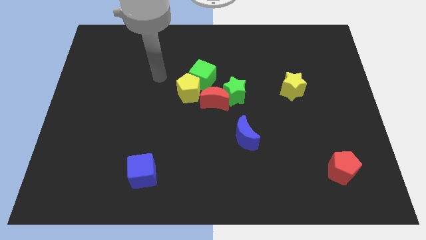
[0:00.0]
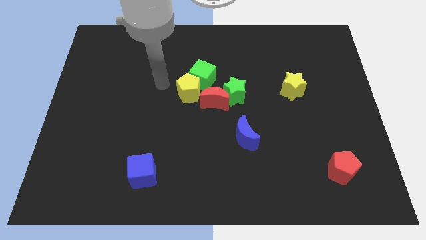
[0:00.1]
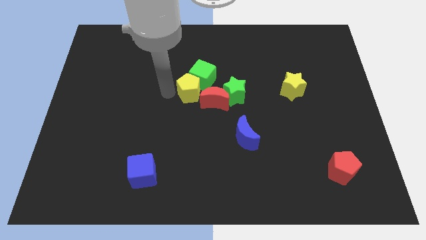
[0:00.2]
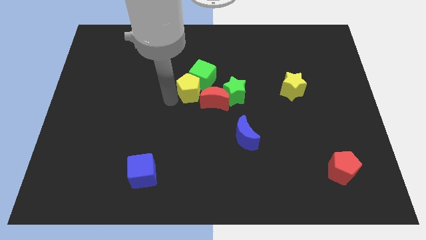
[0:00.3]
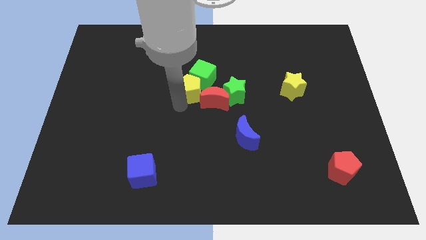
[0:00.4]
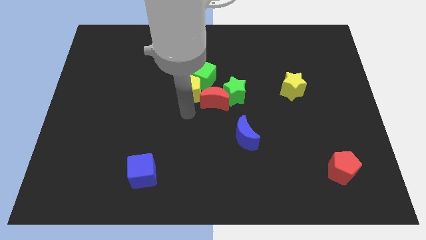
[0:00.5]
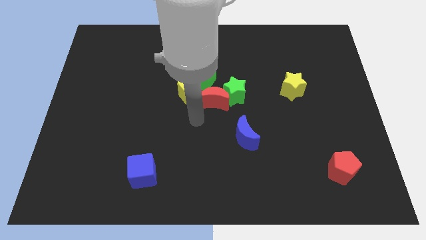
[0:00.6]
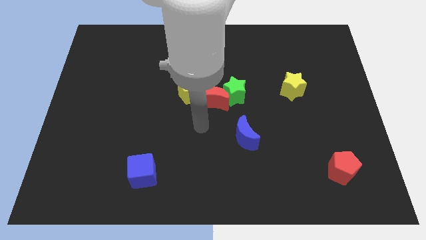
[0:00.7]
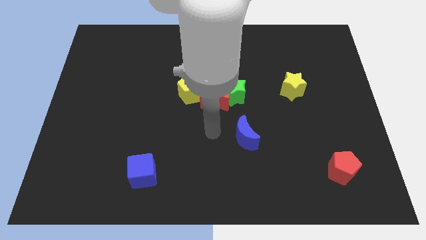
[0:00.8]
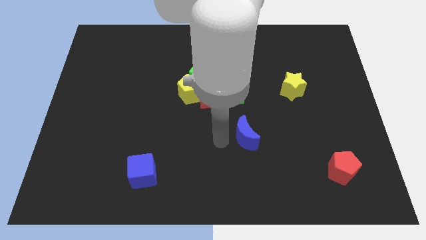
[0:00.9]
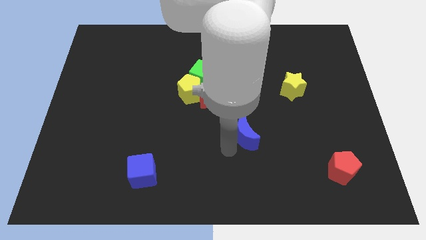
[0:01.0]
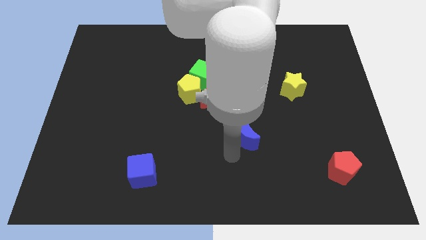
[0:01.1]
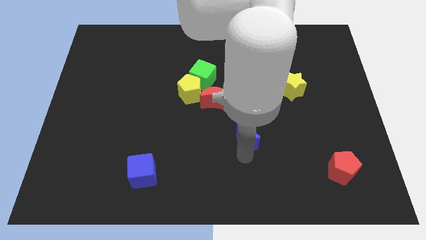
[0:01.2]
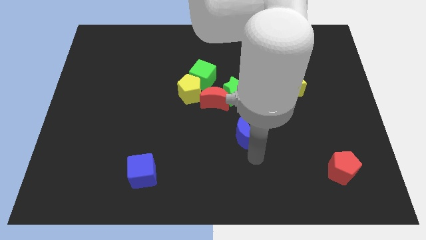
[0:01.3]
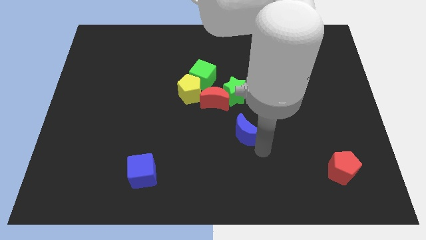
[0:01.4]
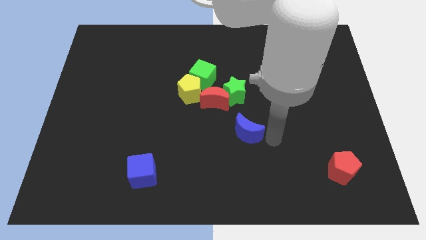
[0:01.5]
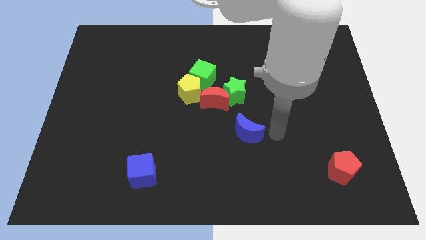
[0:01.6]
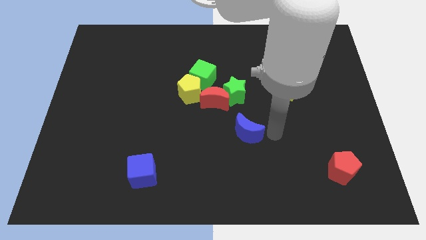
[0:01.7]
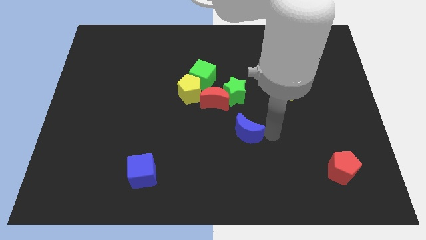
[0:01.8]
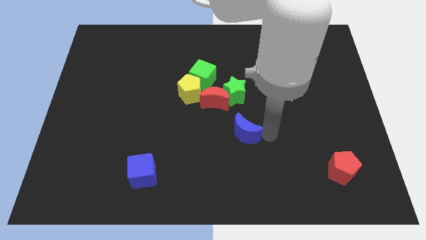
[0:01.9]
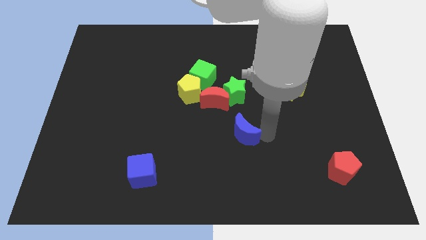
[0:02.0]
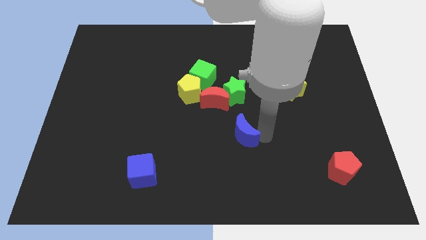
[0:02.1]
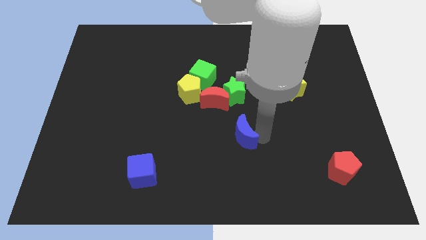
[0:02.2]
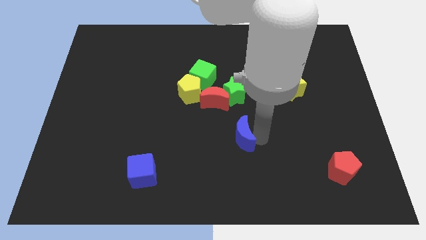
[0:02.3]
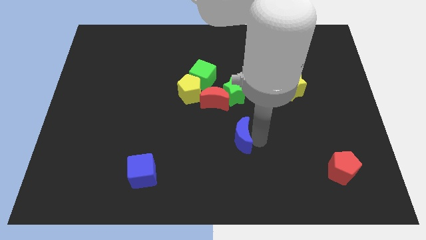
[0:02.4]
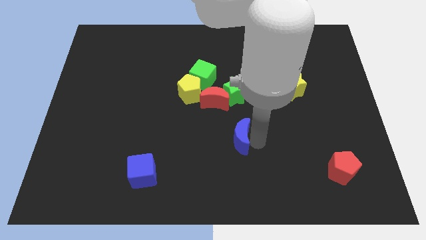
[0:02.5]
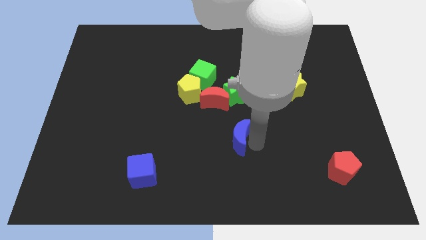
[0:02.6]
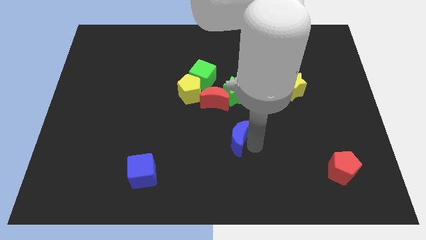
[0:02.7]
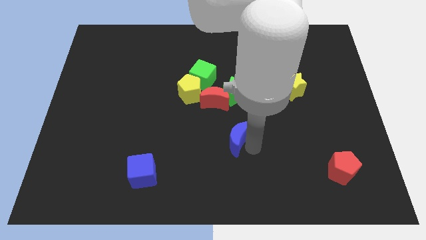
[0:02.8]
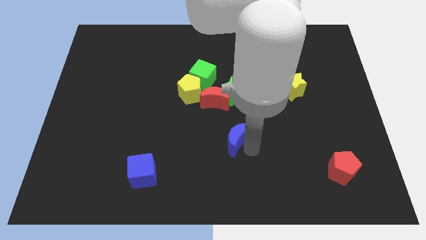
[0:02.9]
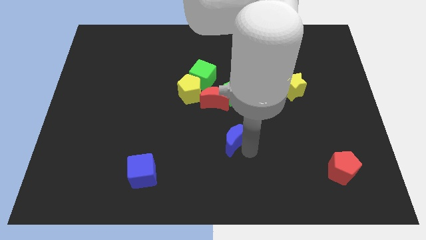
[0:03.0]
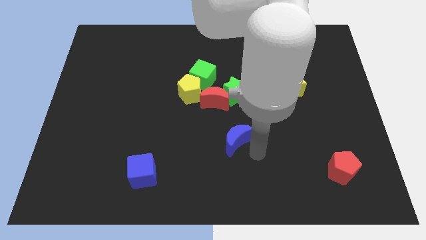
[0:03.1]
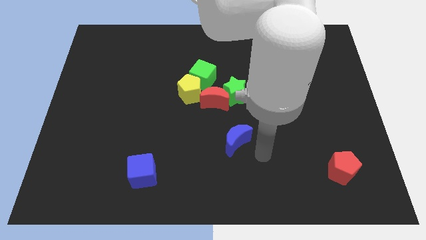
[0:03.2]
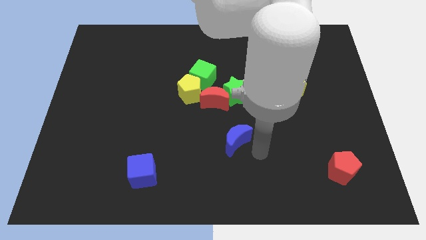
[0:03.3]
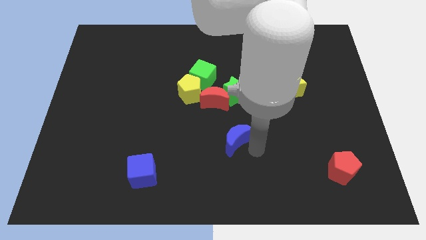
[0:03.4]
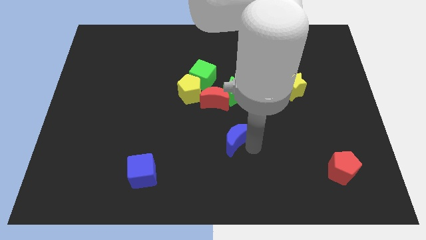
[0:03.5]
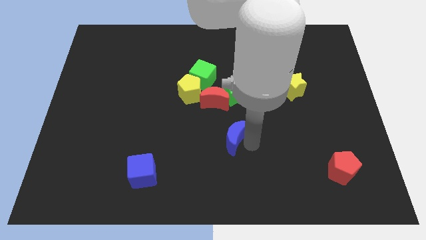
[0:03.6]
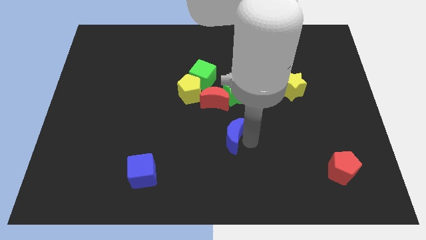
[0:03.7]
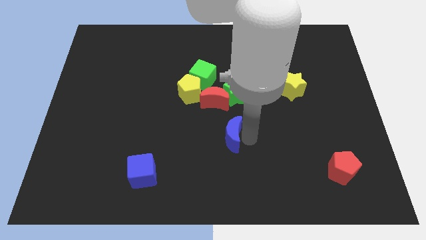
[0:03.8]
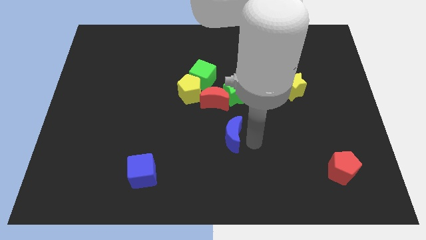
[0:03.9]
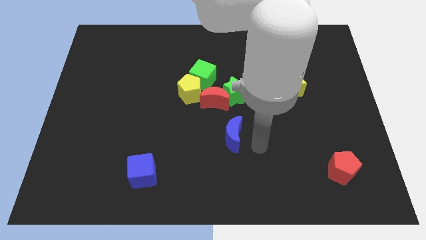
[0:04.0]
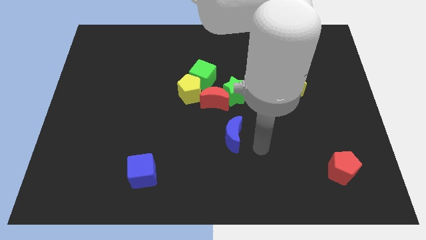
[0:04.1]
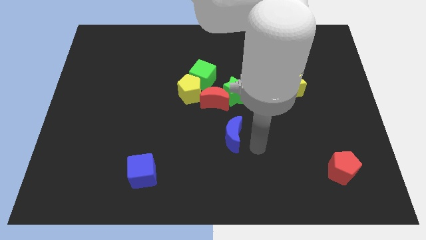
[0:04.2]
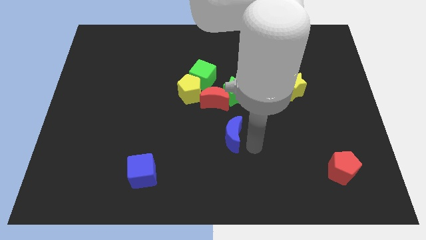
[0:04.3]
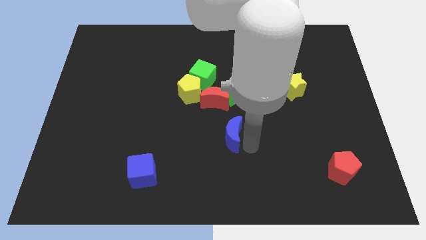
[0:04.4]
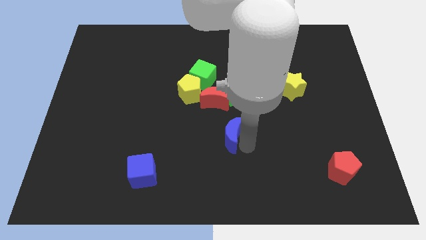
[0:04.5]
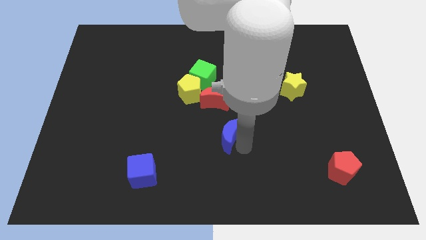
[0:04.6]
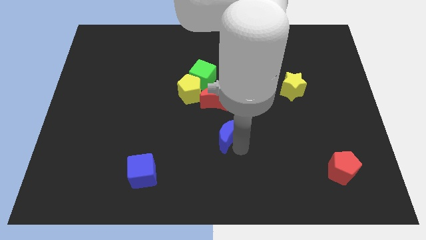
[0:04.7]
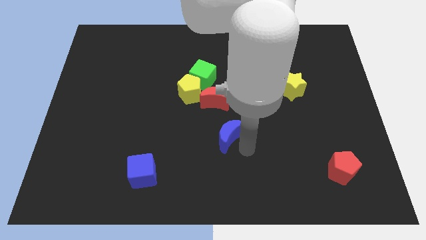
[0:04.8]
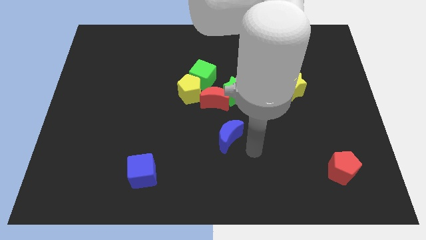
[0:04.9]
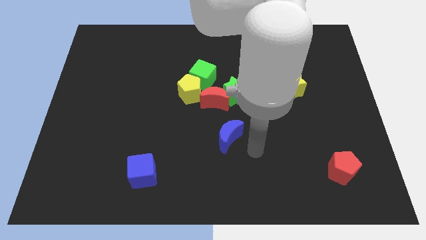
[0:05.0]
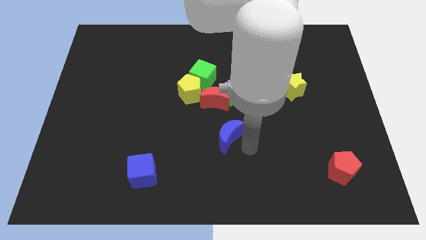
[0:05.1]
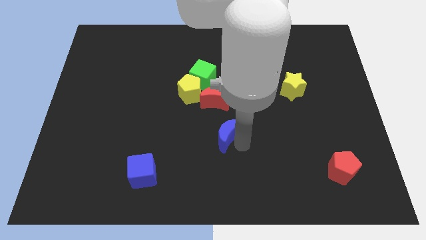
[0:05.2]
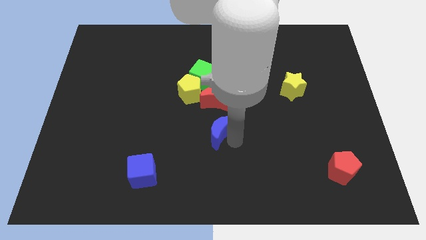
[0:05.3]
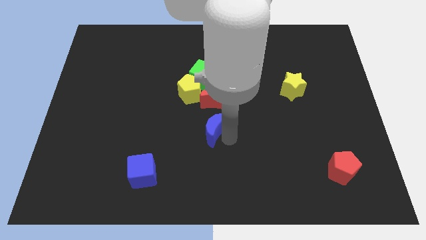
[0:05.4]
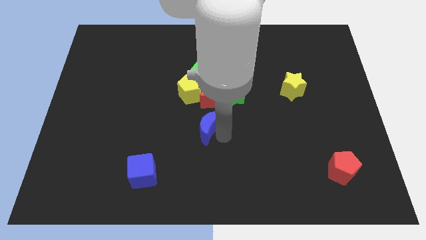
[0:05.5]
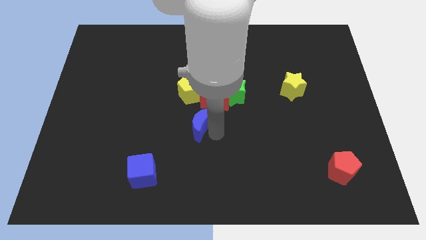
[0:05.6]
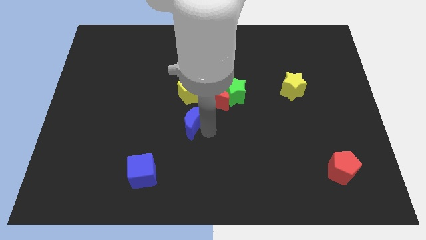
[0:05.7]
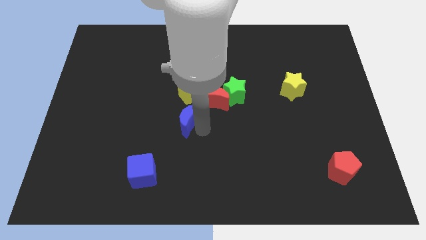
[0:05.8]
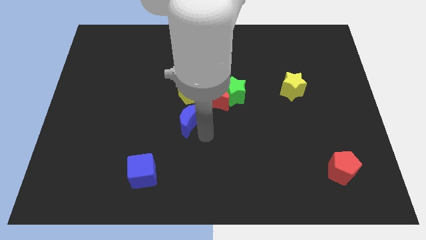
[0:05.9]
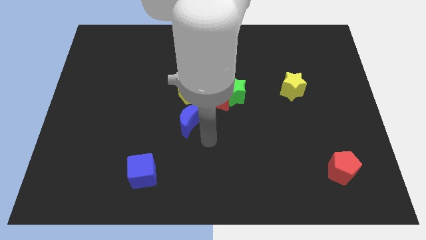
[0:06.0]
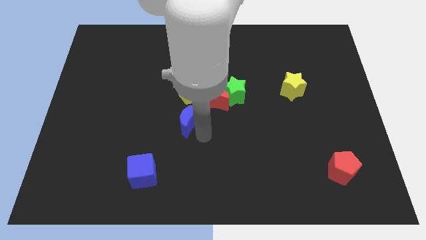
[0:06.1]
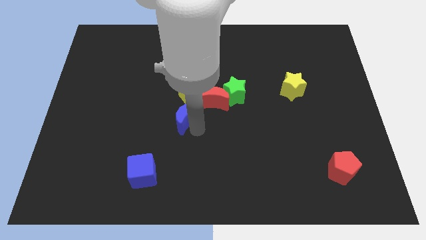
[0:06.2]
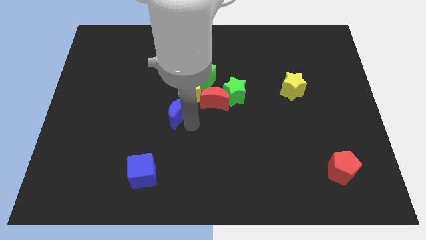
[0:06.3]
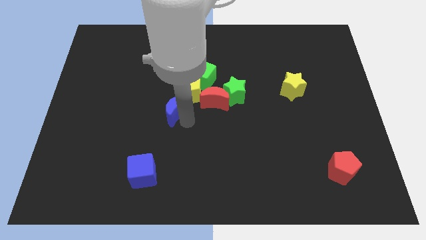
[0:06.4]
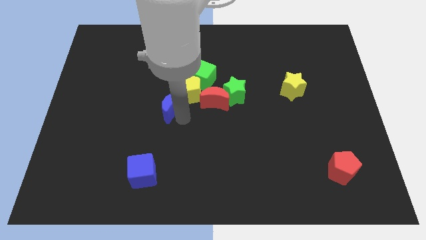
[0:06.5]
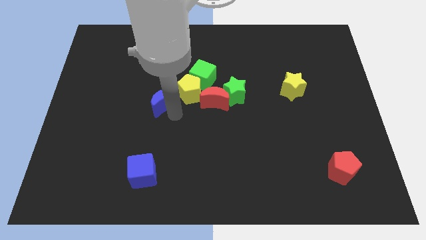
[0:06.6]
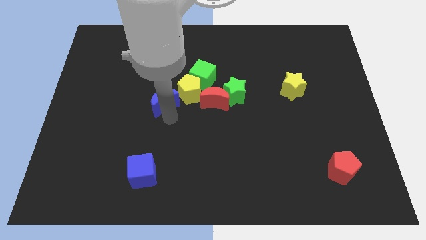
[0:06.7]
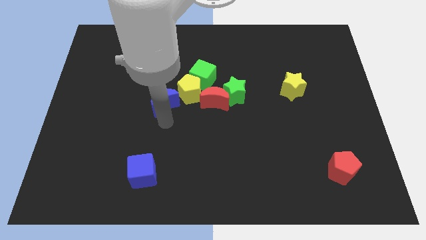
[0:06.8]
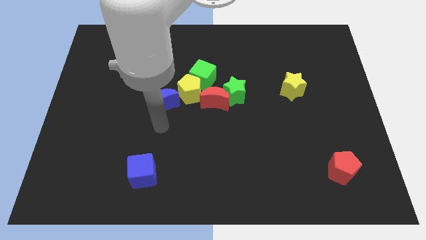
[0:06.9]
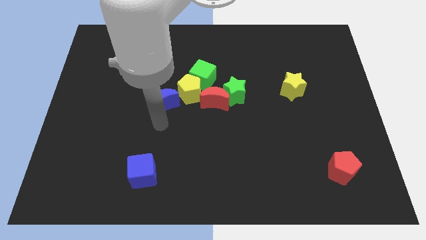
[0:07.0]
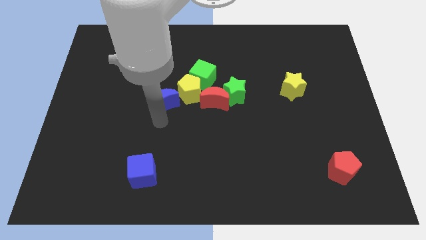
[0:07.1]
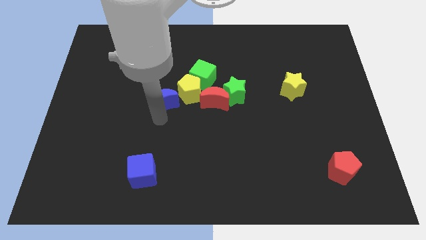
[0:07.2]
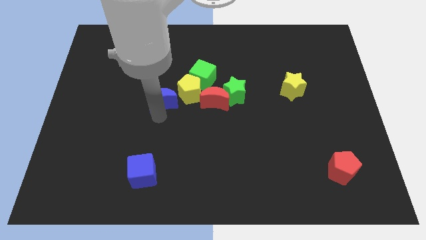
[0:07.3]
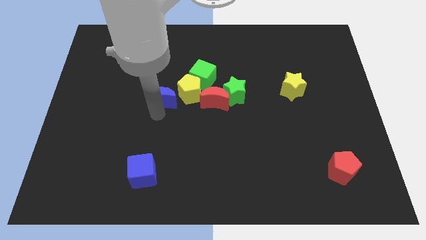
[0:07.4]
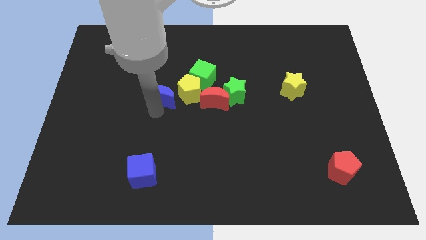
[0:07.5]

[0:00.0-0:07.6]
move the blue moon diagonally upwards and left

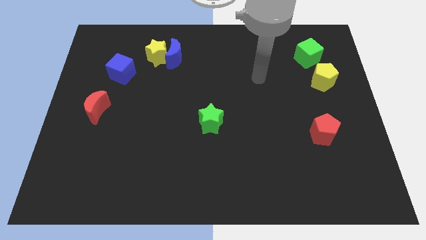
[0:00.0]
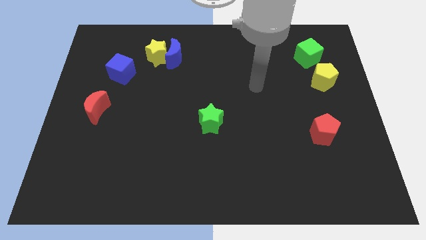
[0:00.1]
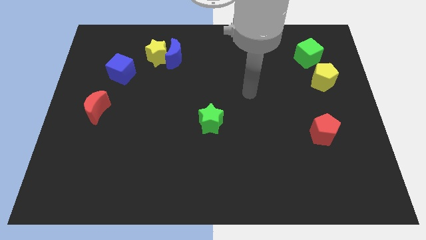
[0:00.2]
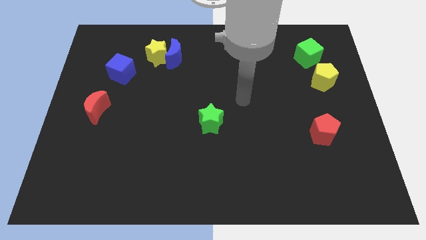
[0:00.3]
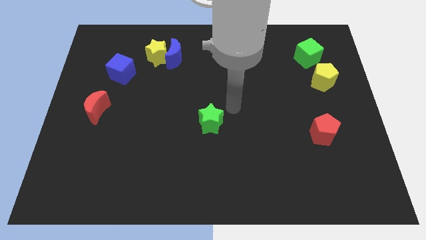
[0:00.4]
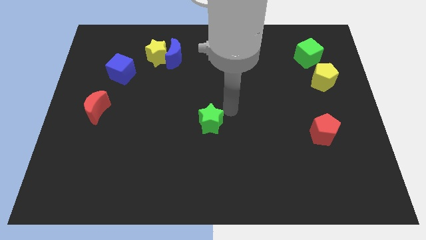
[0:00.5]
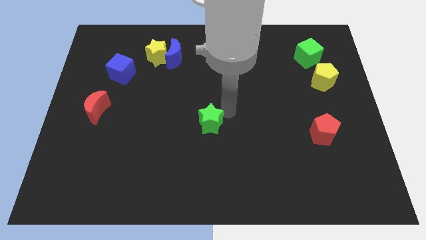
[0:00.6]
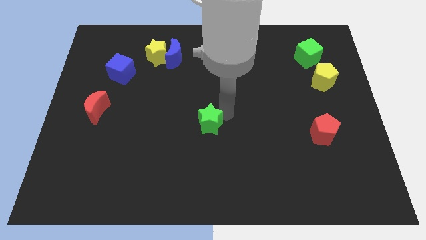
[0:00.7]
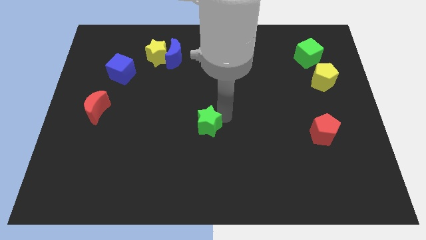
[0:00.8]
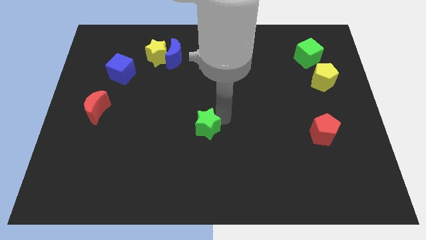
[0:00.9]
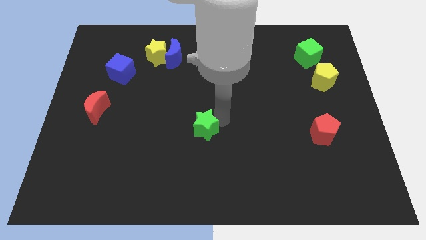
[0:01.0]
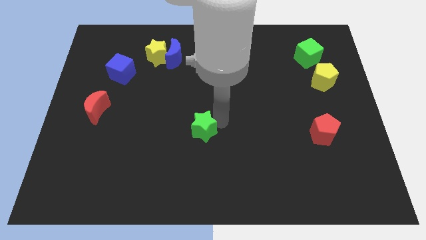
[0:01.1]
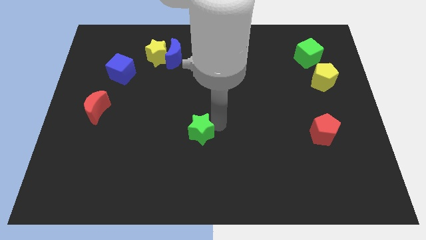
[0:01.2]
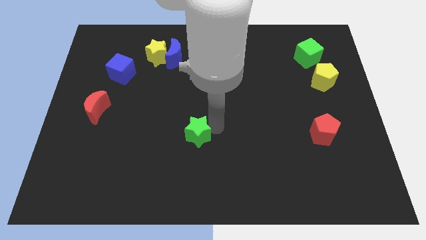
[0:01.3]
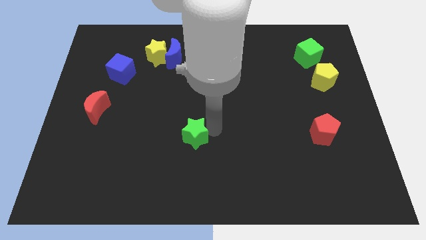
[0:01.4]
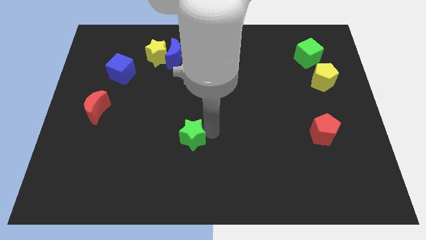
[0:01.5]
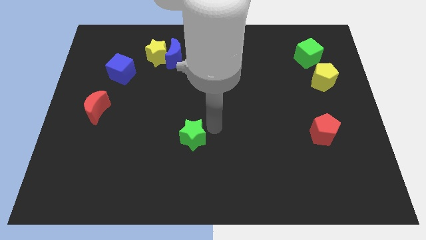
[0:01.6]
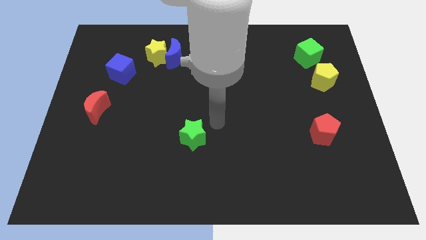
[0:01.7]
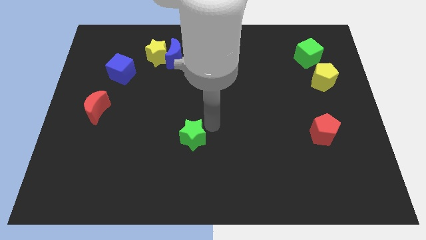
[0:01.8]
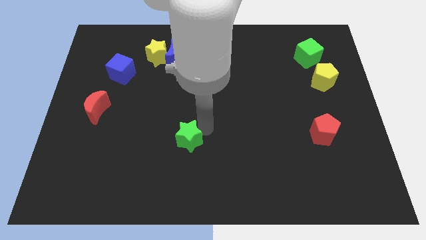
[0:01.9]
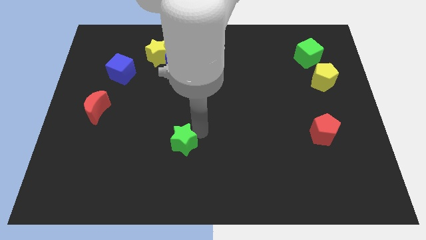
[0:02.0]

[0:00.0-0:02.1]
move the green star diagonally downwards and to the left a bit
